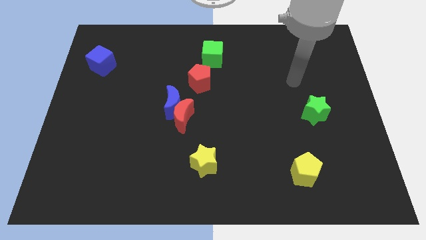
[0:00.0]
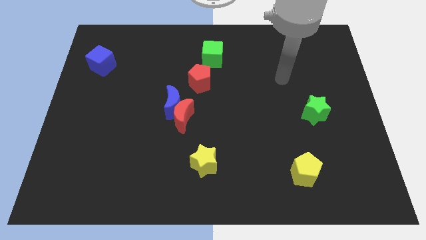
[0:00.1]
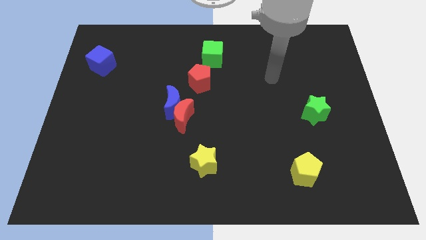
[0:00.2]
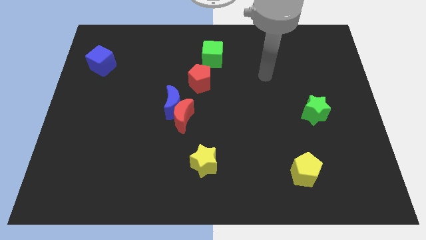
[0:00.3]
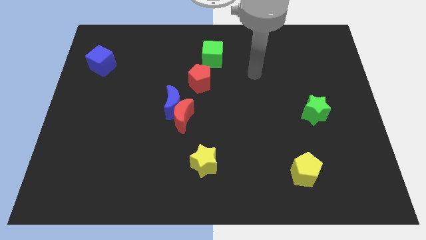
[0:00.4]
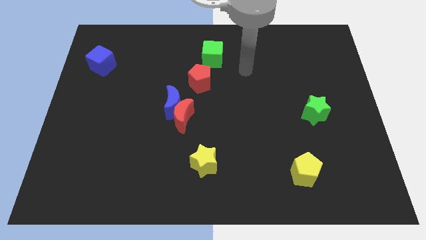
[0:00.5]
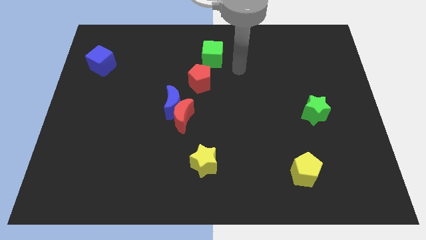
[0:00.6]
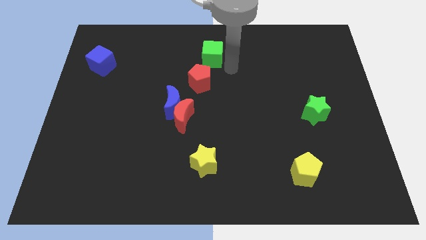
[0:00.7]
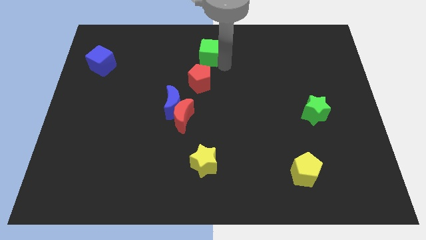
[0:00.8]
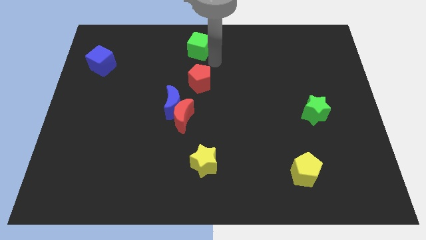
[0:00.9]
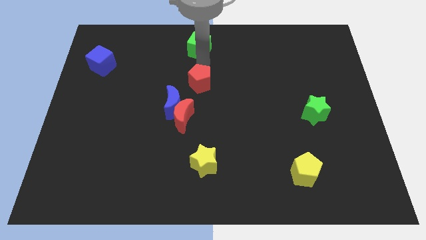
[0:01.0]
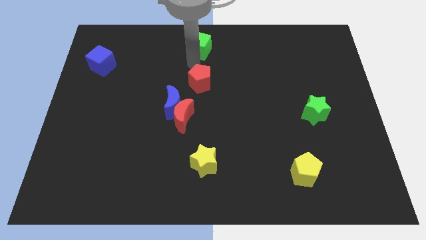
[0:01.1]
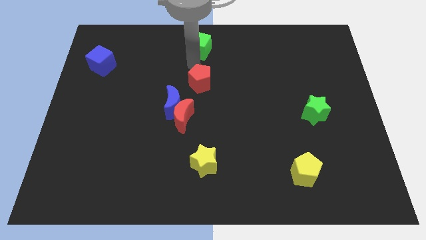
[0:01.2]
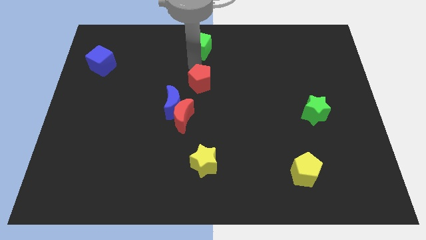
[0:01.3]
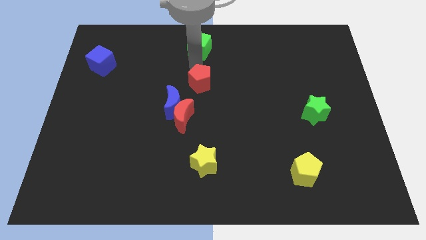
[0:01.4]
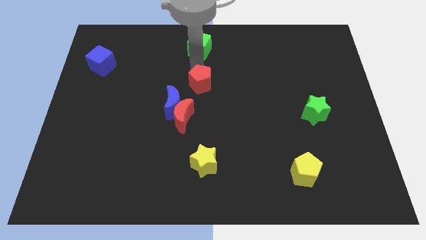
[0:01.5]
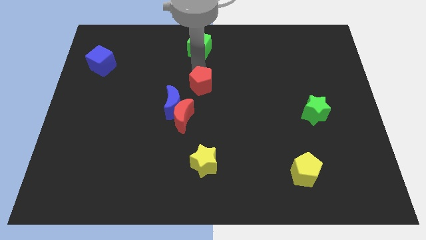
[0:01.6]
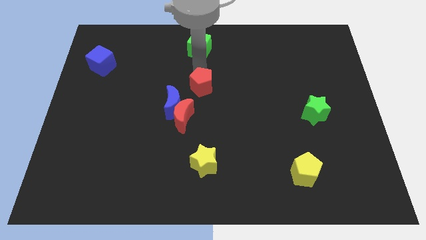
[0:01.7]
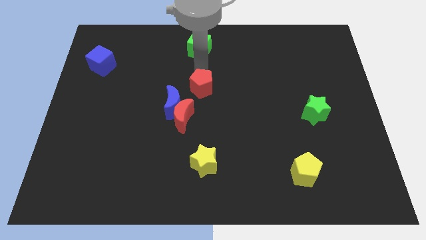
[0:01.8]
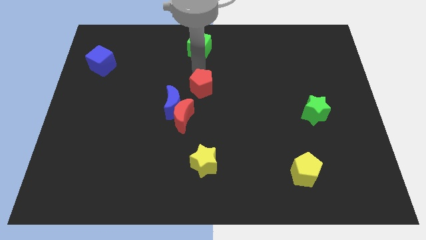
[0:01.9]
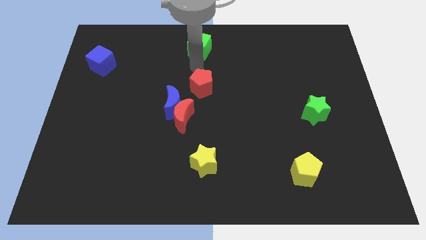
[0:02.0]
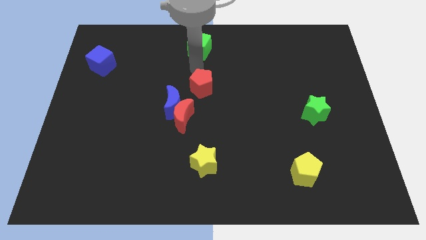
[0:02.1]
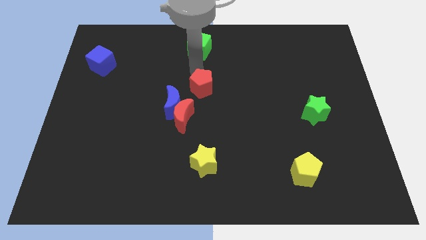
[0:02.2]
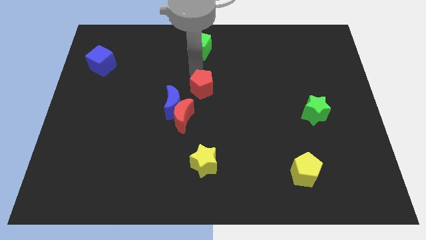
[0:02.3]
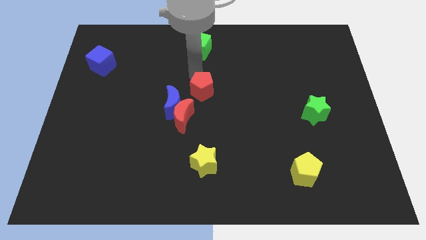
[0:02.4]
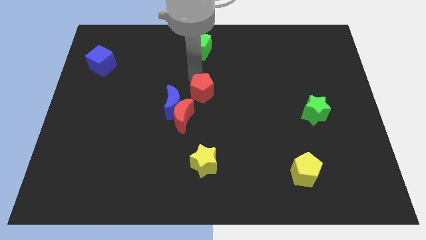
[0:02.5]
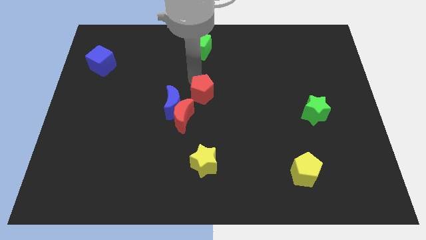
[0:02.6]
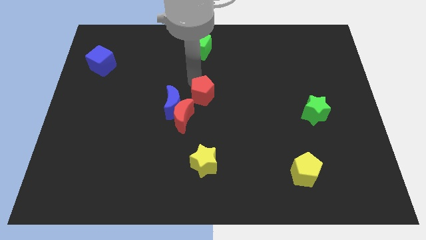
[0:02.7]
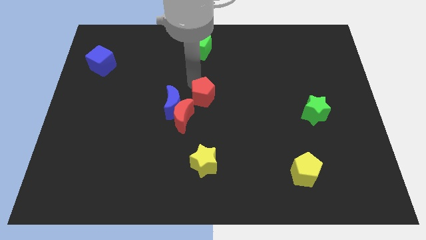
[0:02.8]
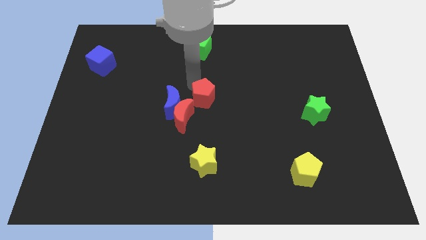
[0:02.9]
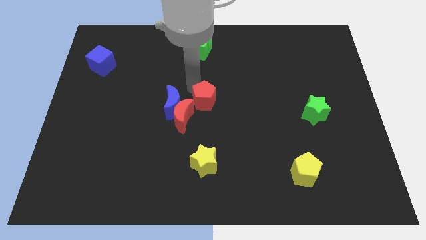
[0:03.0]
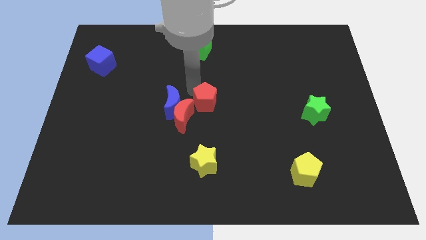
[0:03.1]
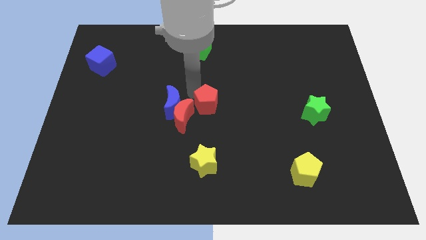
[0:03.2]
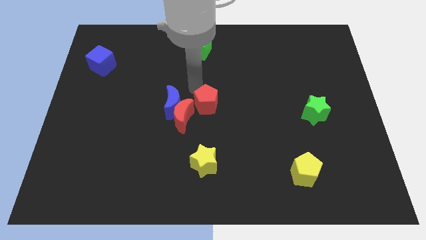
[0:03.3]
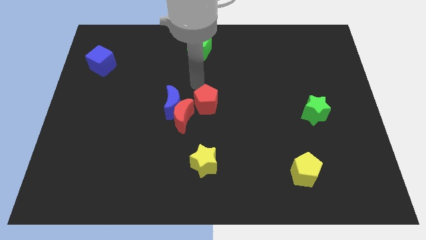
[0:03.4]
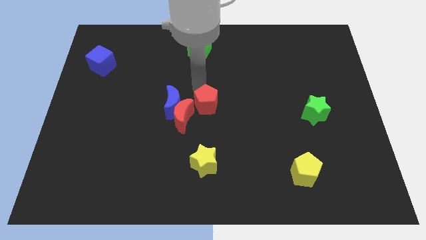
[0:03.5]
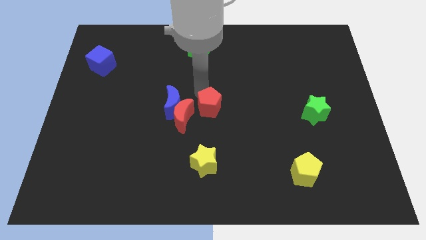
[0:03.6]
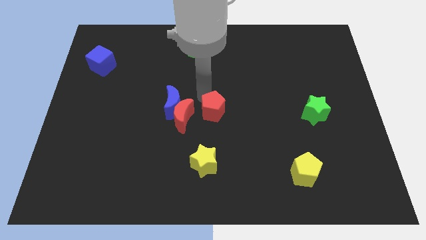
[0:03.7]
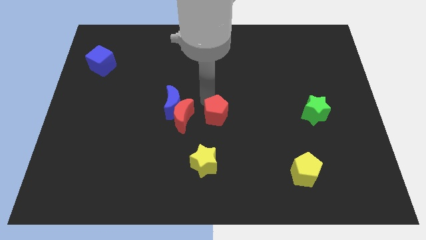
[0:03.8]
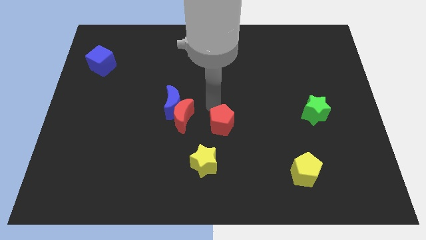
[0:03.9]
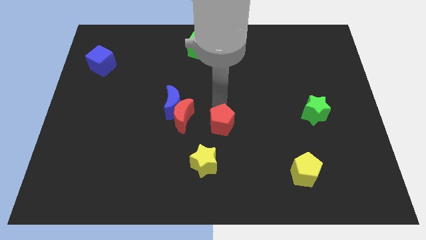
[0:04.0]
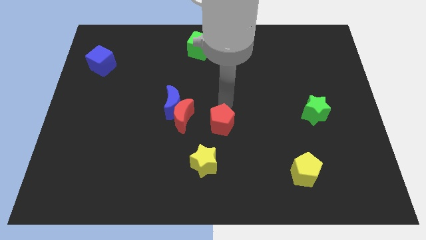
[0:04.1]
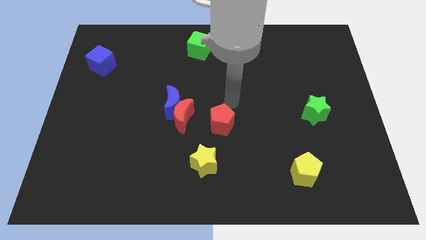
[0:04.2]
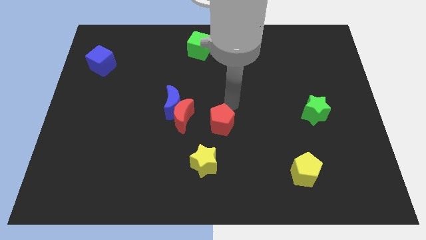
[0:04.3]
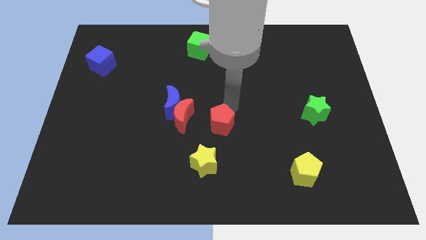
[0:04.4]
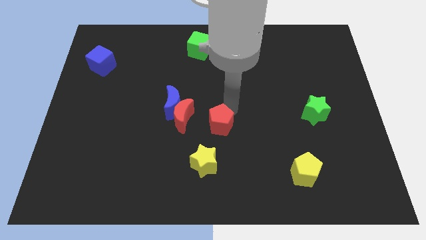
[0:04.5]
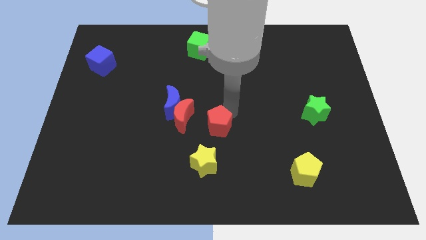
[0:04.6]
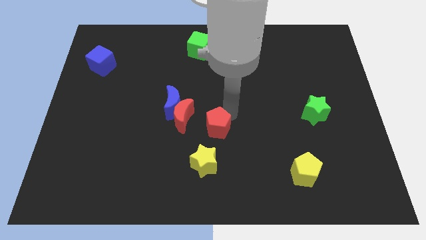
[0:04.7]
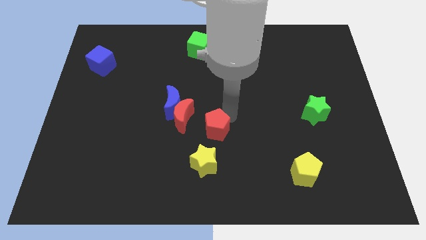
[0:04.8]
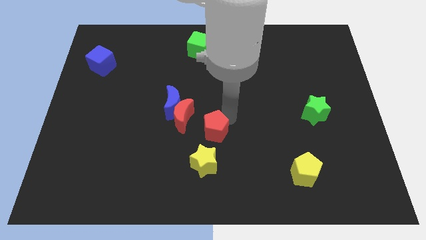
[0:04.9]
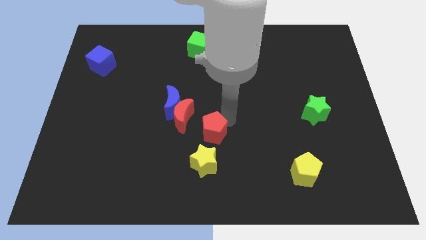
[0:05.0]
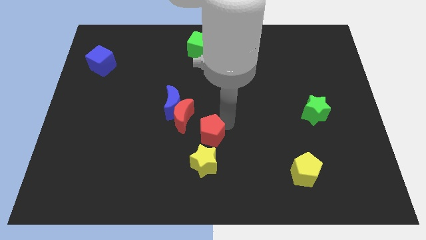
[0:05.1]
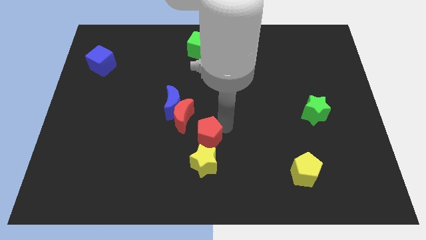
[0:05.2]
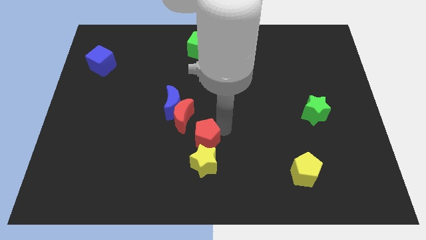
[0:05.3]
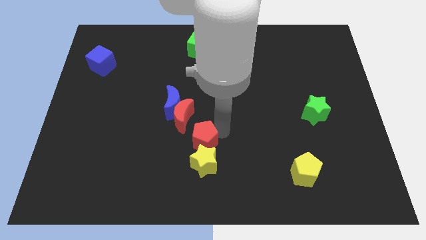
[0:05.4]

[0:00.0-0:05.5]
put the red pentagon close to the yellow star

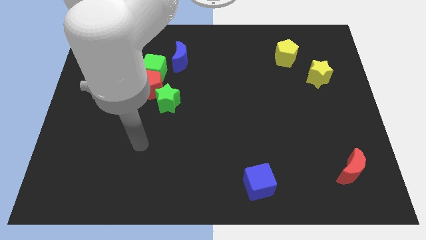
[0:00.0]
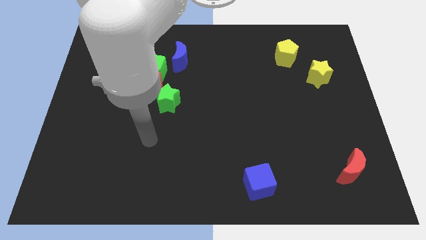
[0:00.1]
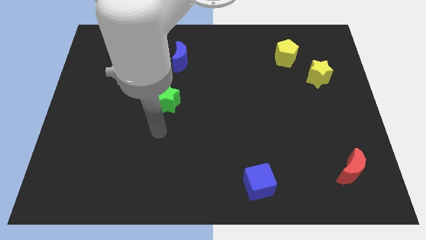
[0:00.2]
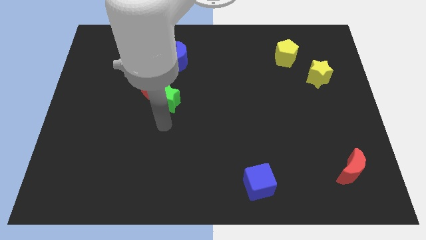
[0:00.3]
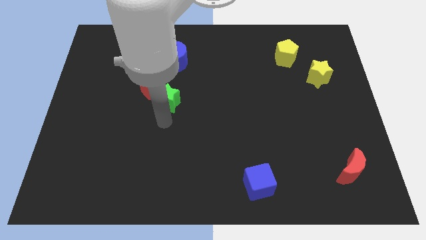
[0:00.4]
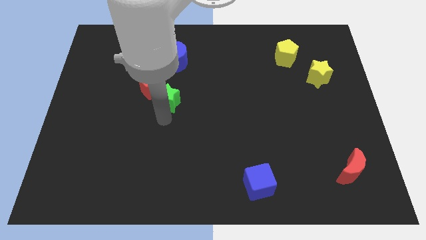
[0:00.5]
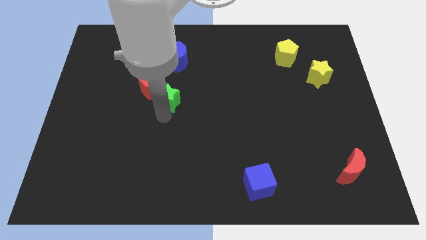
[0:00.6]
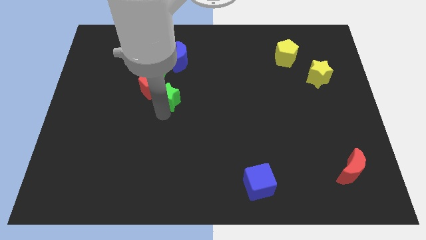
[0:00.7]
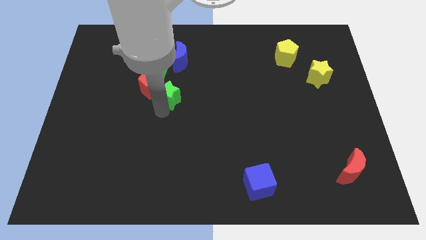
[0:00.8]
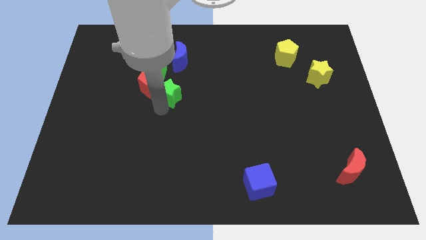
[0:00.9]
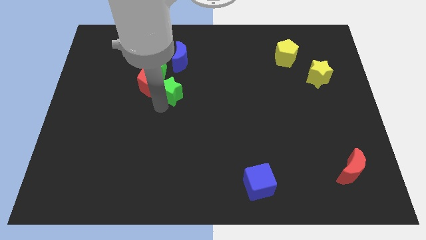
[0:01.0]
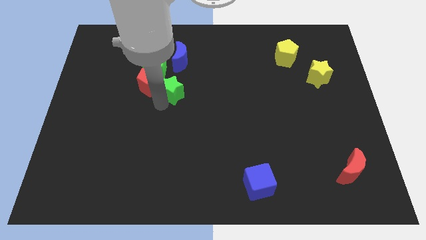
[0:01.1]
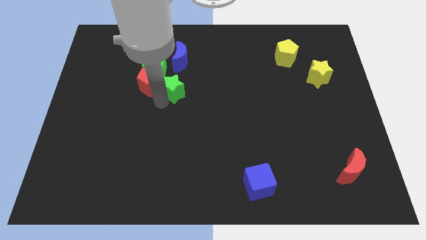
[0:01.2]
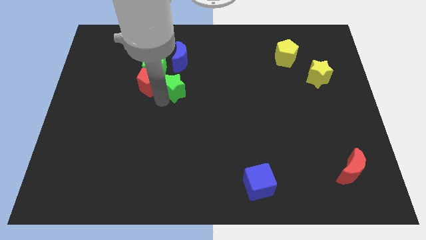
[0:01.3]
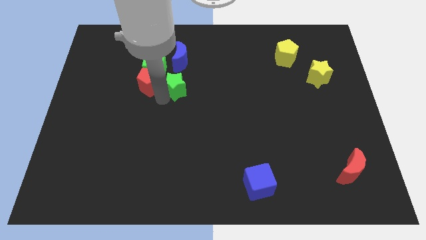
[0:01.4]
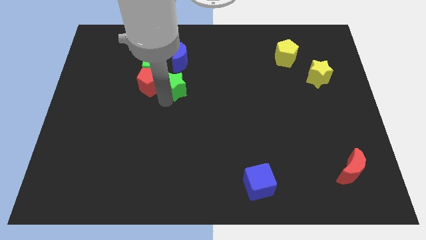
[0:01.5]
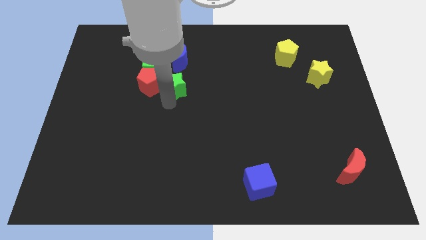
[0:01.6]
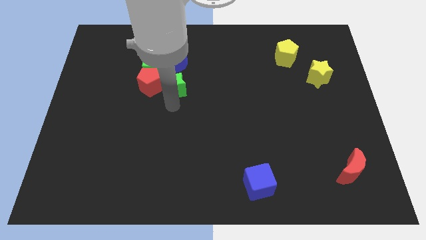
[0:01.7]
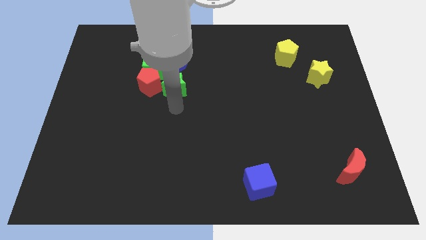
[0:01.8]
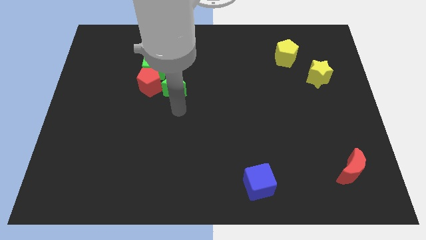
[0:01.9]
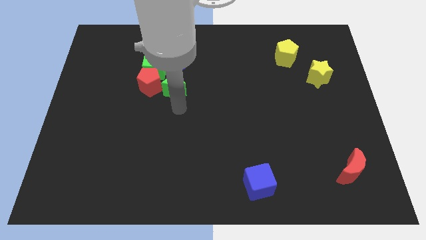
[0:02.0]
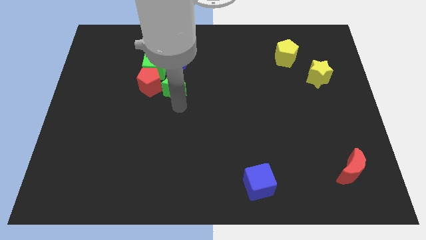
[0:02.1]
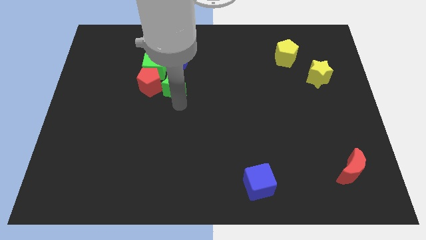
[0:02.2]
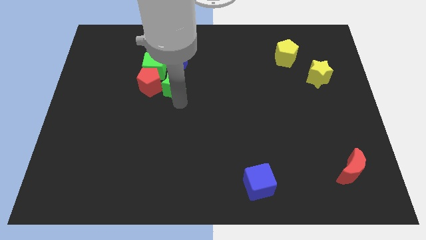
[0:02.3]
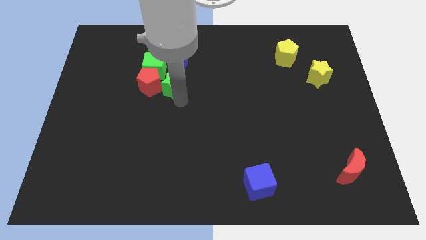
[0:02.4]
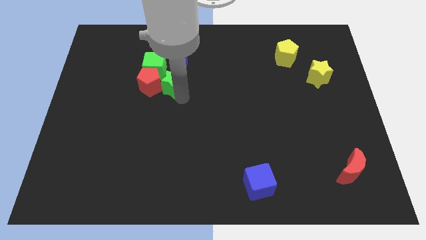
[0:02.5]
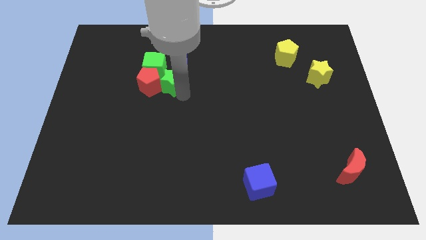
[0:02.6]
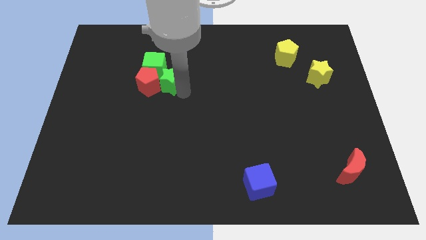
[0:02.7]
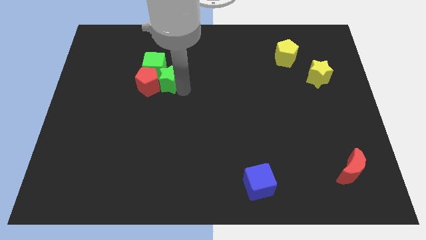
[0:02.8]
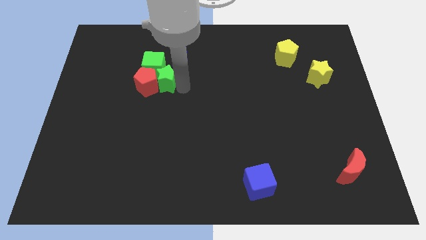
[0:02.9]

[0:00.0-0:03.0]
push the green star next to the green cube
